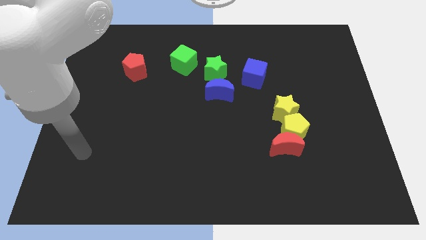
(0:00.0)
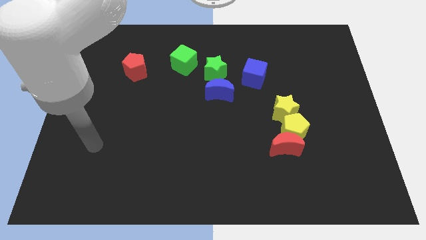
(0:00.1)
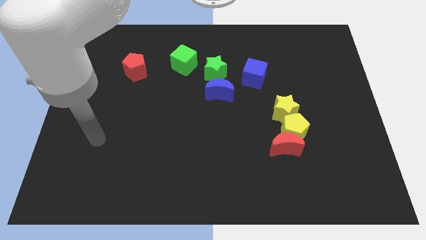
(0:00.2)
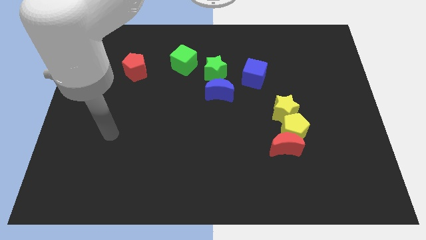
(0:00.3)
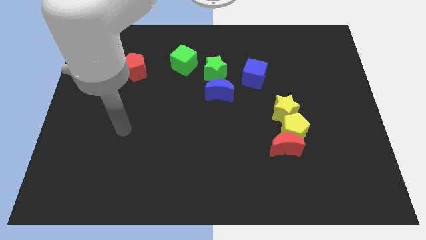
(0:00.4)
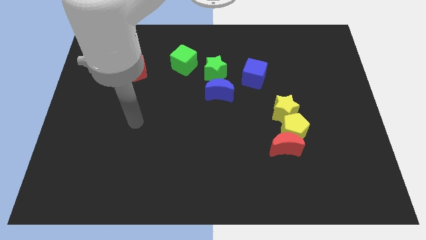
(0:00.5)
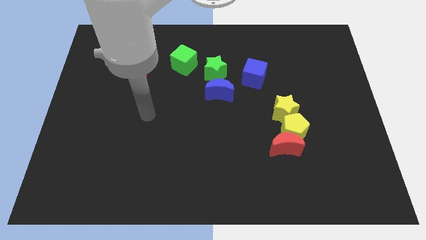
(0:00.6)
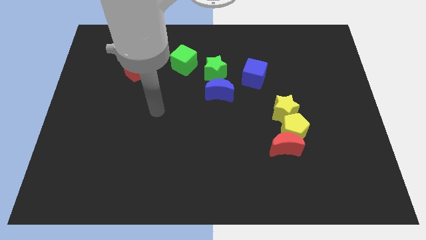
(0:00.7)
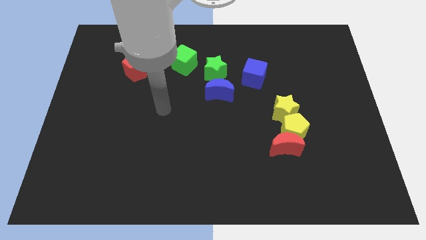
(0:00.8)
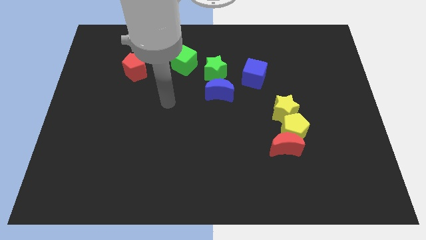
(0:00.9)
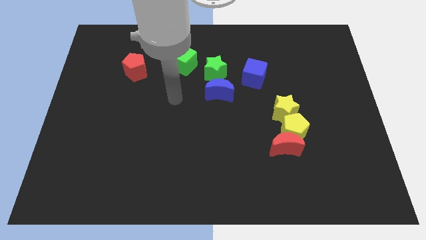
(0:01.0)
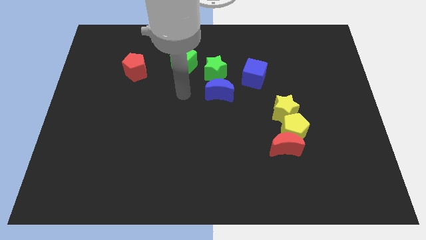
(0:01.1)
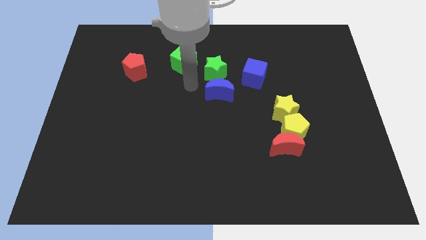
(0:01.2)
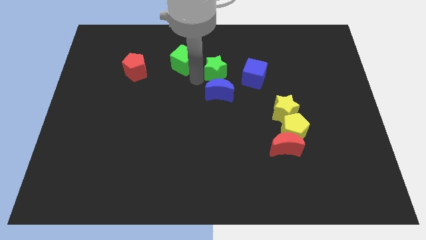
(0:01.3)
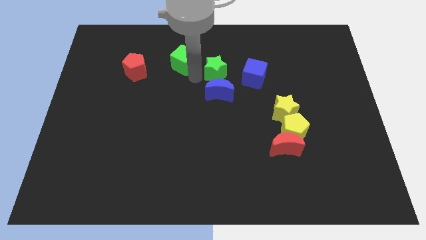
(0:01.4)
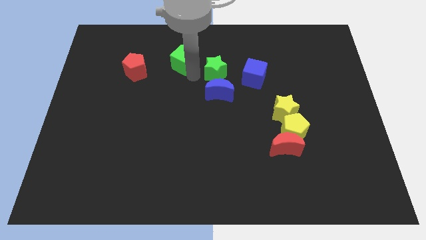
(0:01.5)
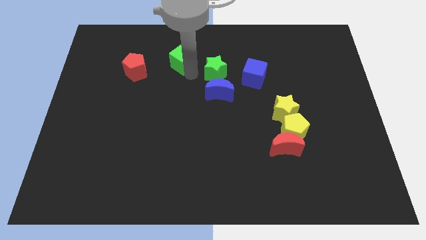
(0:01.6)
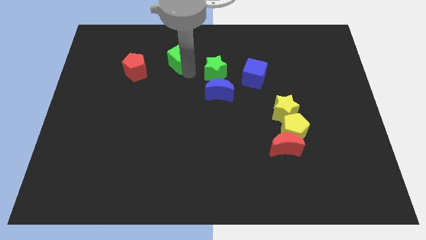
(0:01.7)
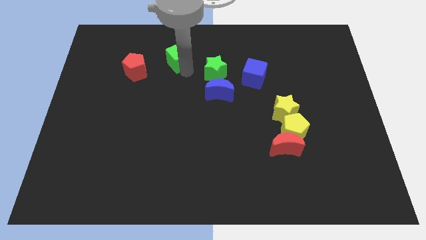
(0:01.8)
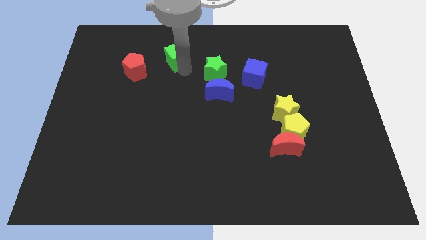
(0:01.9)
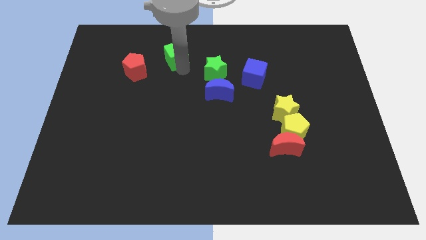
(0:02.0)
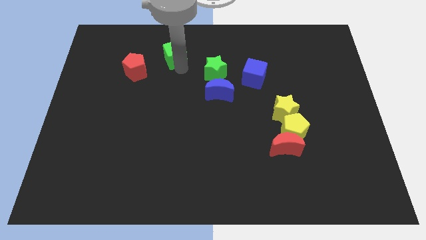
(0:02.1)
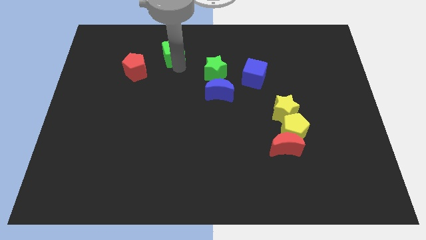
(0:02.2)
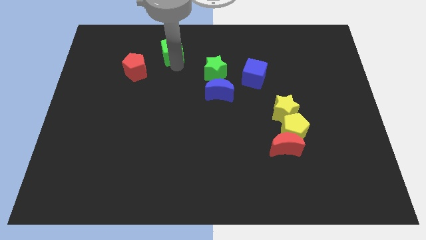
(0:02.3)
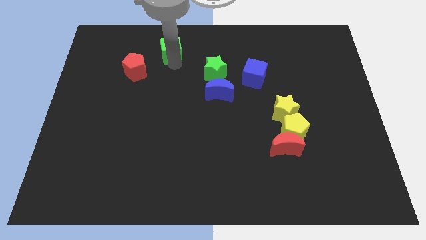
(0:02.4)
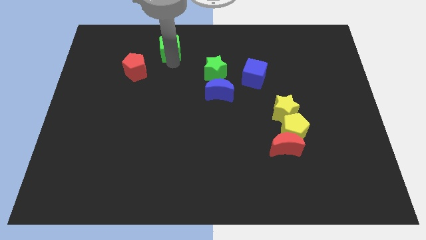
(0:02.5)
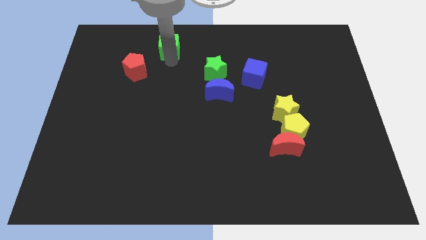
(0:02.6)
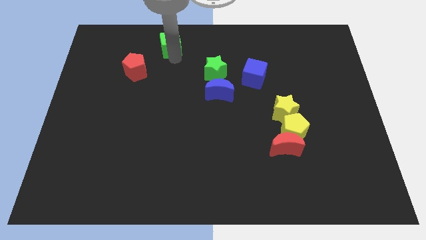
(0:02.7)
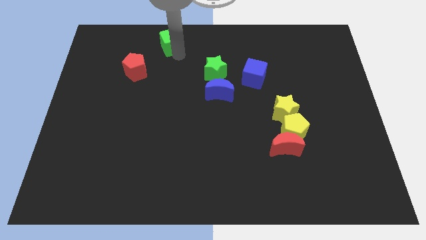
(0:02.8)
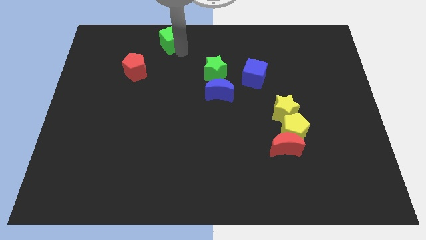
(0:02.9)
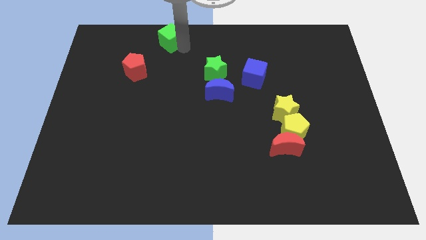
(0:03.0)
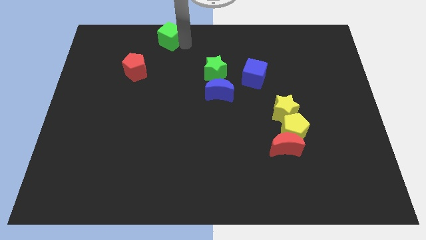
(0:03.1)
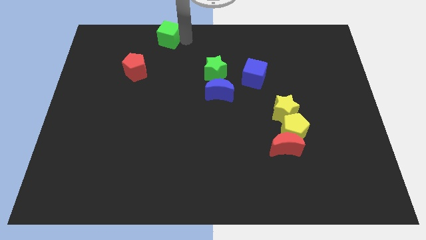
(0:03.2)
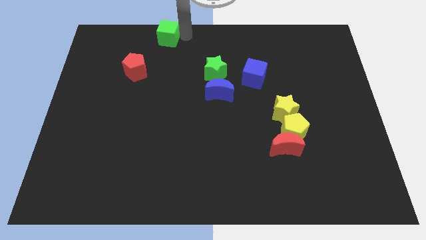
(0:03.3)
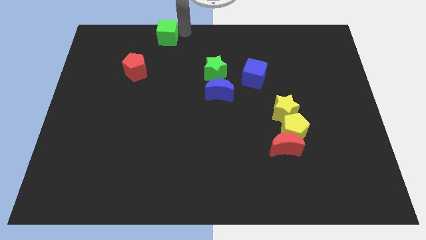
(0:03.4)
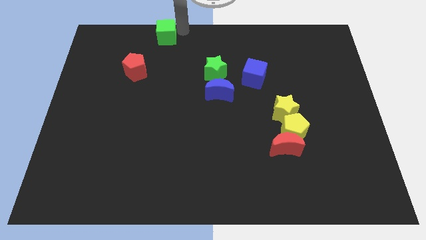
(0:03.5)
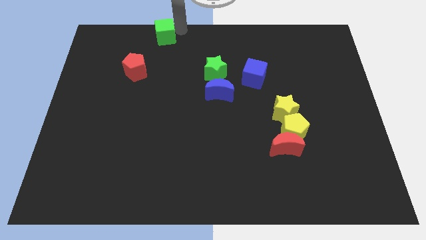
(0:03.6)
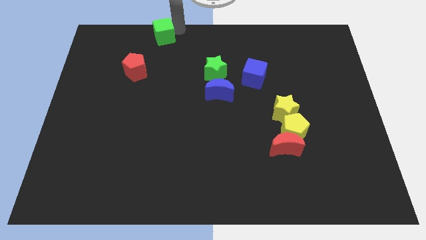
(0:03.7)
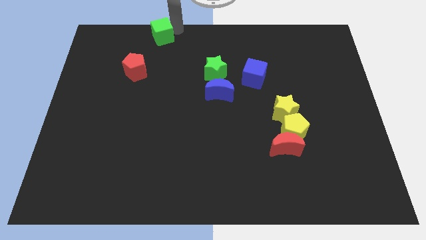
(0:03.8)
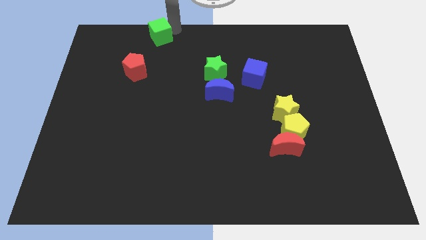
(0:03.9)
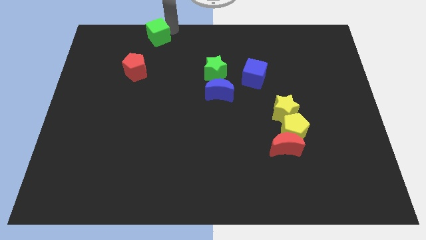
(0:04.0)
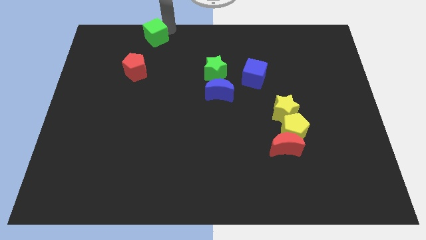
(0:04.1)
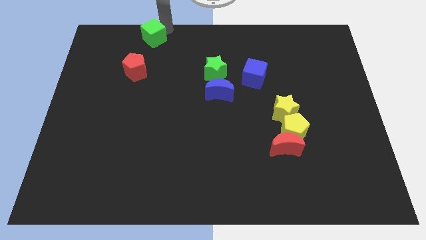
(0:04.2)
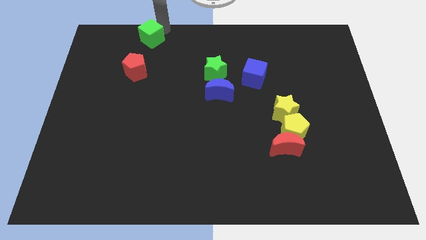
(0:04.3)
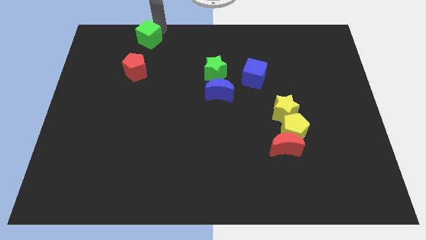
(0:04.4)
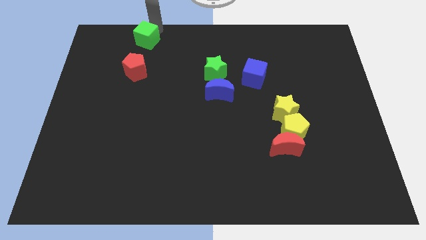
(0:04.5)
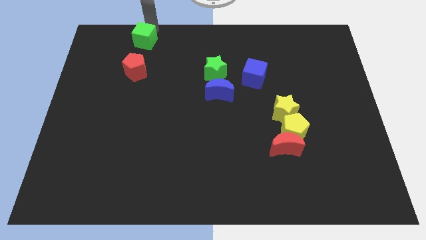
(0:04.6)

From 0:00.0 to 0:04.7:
push the green cube slightly to the left

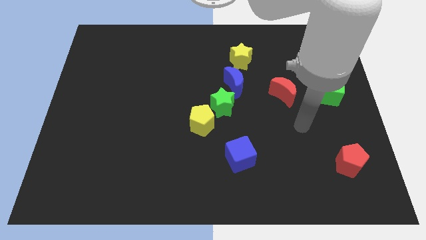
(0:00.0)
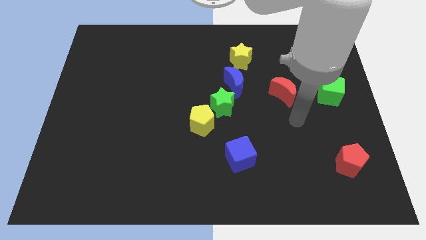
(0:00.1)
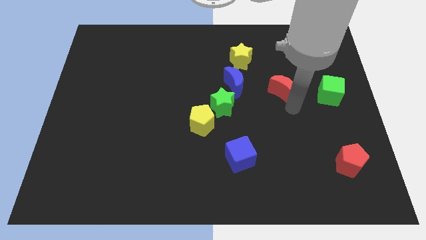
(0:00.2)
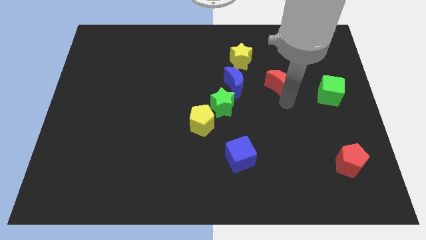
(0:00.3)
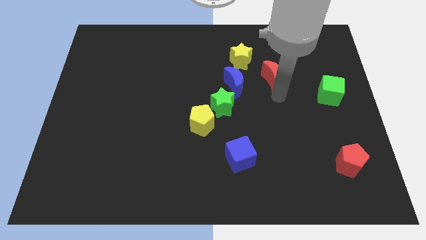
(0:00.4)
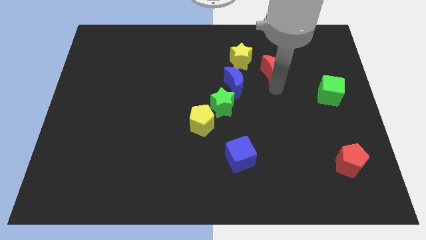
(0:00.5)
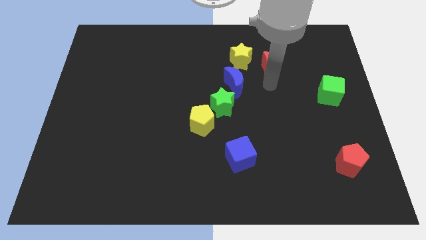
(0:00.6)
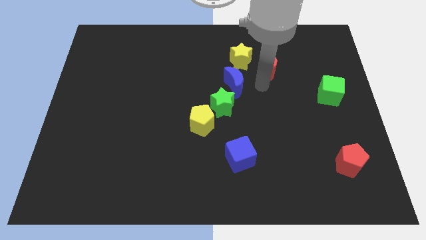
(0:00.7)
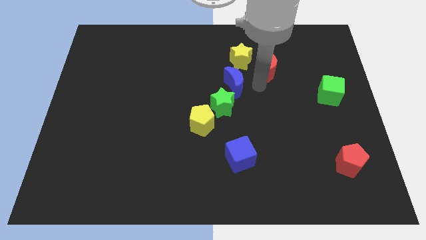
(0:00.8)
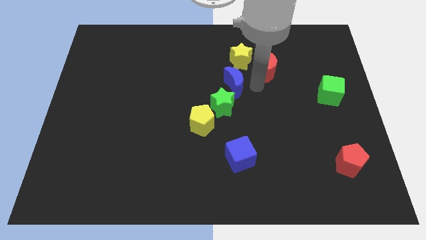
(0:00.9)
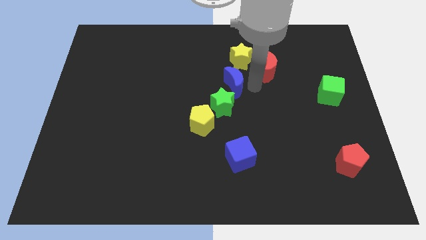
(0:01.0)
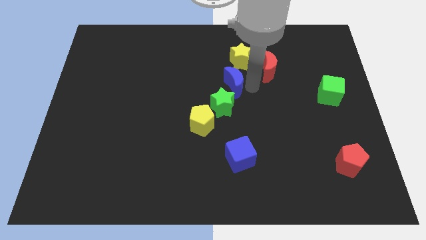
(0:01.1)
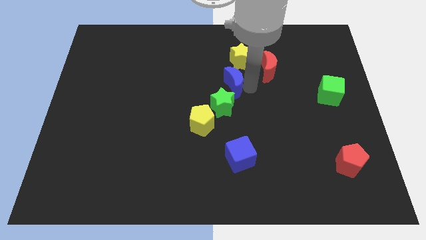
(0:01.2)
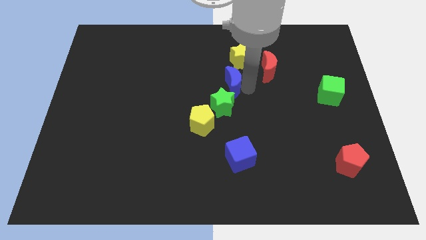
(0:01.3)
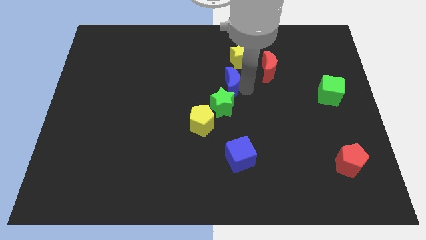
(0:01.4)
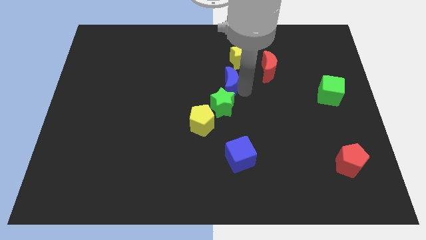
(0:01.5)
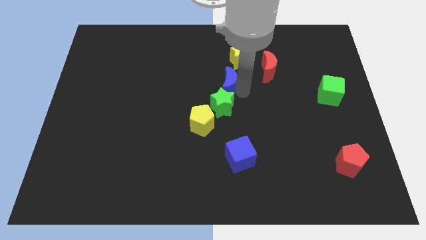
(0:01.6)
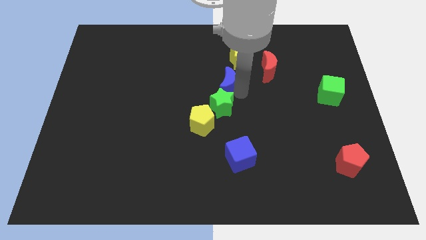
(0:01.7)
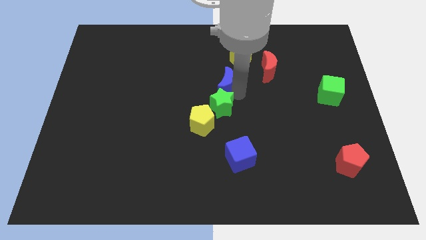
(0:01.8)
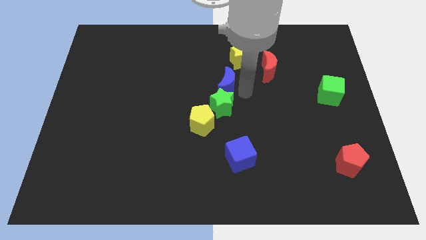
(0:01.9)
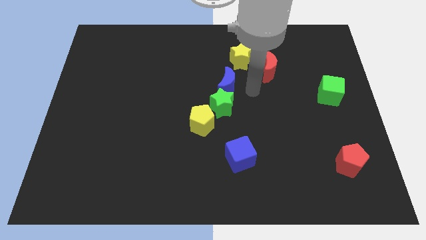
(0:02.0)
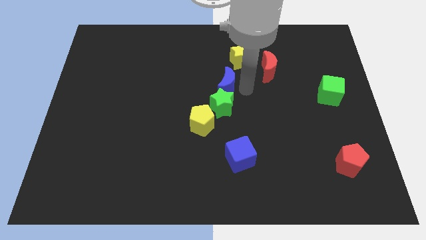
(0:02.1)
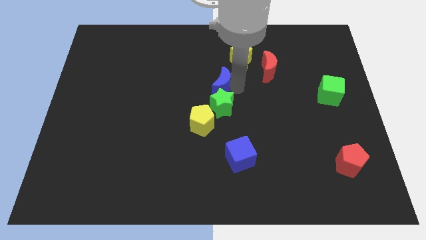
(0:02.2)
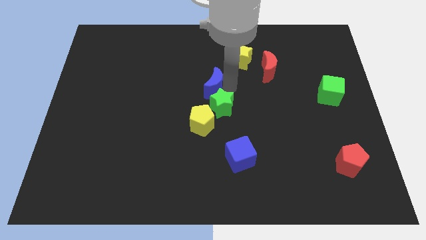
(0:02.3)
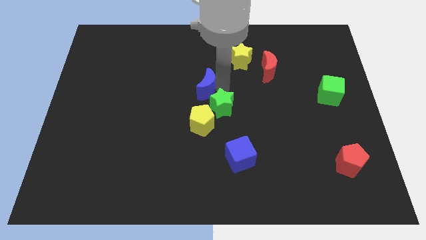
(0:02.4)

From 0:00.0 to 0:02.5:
slide the blue moon left a little

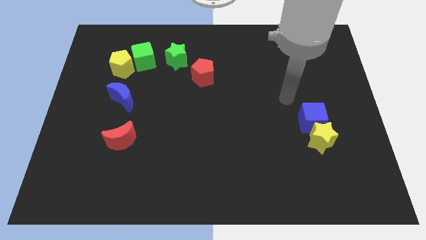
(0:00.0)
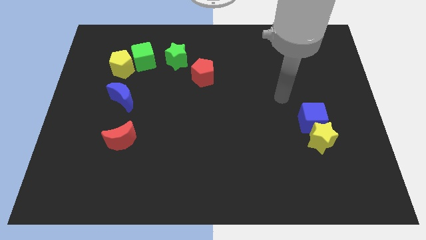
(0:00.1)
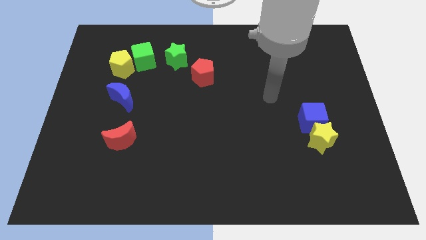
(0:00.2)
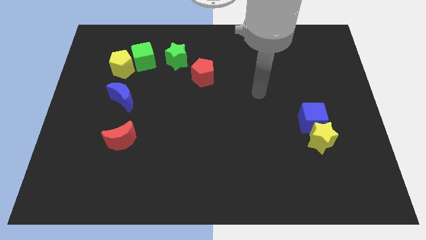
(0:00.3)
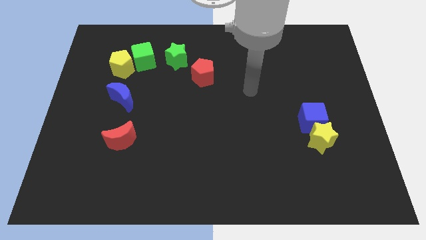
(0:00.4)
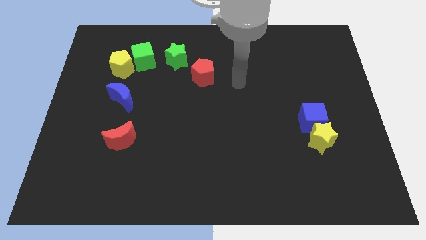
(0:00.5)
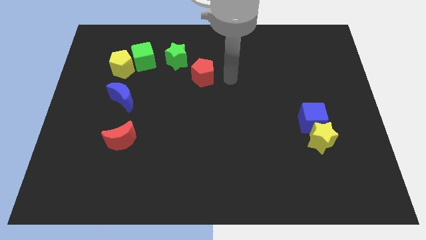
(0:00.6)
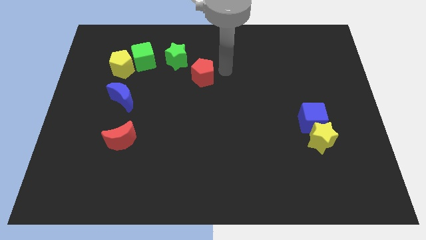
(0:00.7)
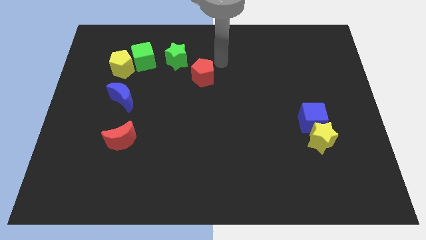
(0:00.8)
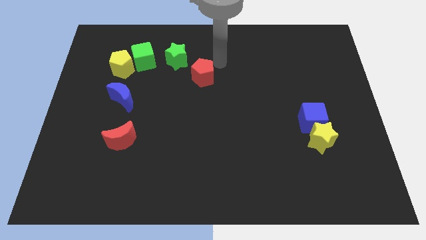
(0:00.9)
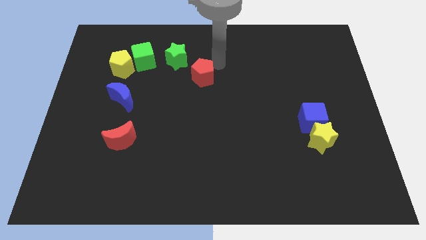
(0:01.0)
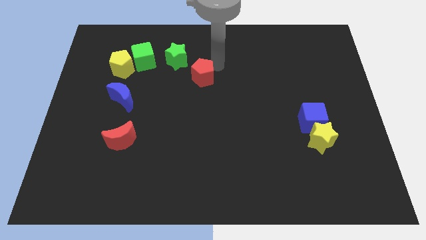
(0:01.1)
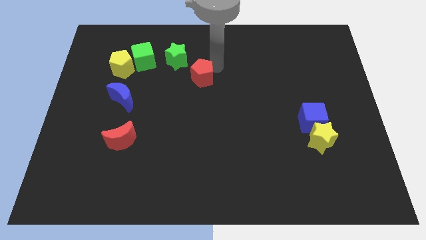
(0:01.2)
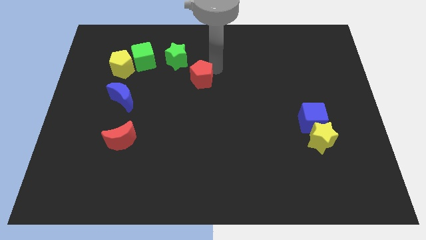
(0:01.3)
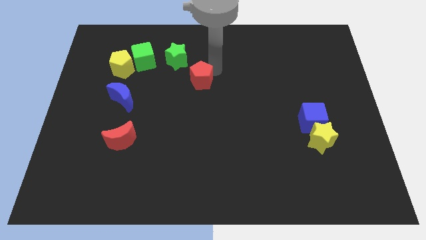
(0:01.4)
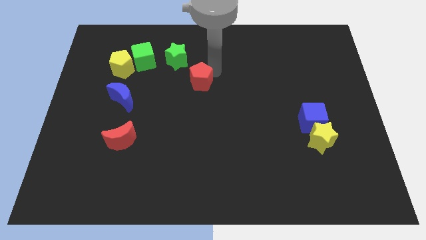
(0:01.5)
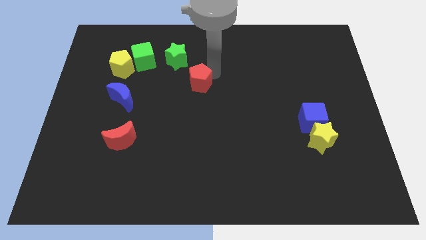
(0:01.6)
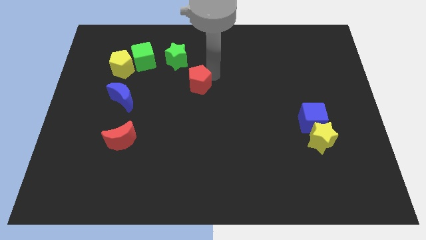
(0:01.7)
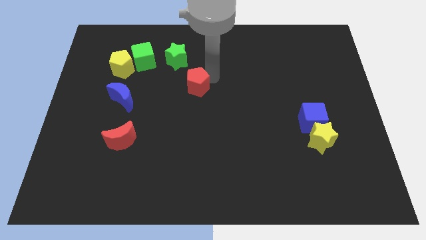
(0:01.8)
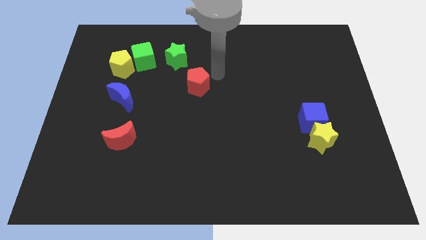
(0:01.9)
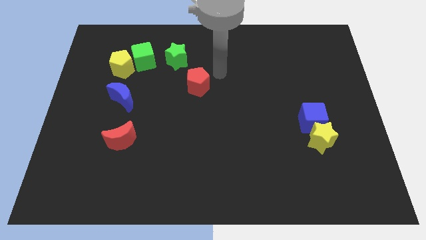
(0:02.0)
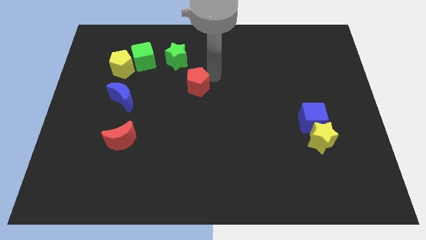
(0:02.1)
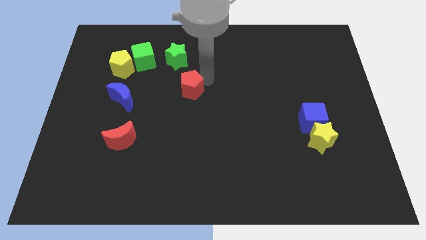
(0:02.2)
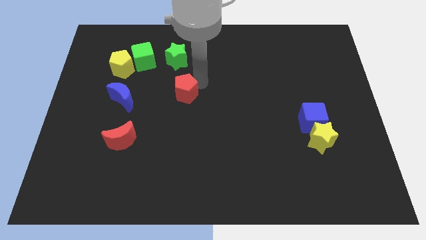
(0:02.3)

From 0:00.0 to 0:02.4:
slightly slide the red pentagon downwards and left diagonally
